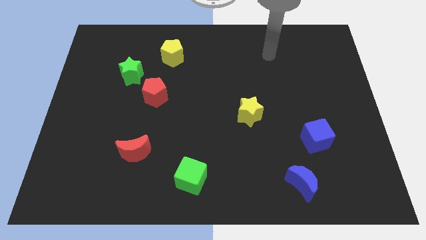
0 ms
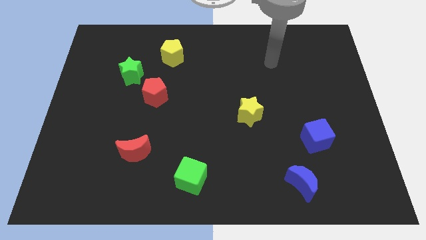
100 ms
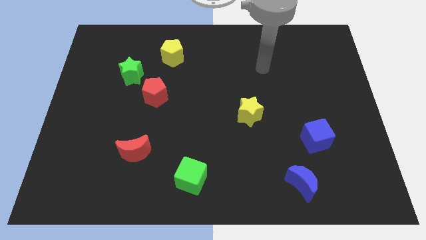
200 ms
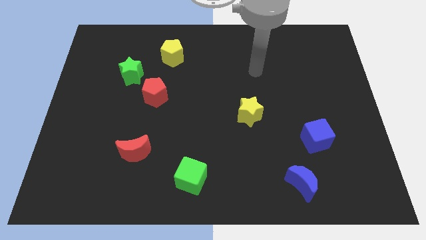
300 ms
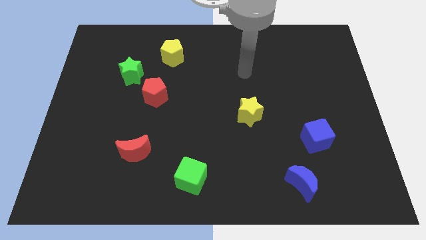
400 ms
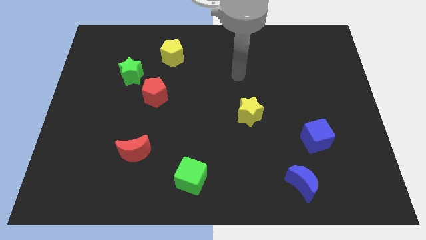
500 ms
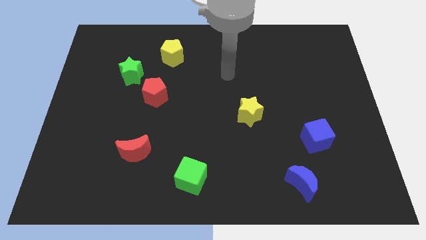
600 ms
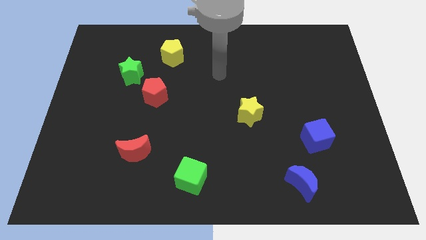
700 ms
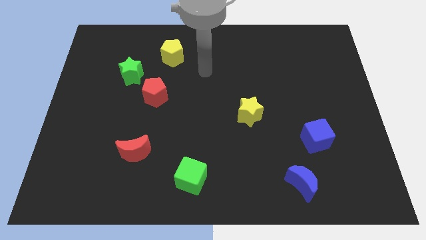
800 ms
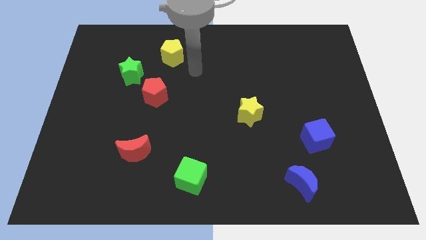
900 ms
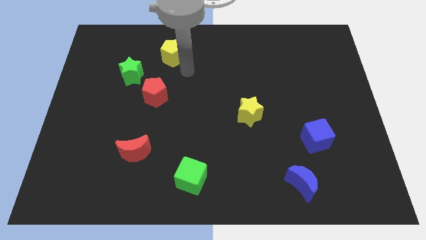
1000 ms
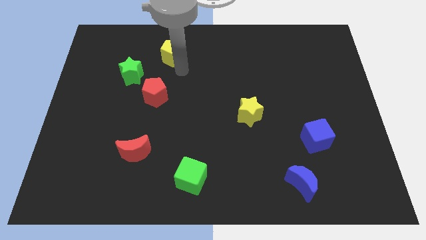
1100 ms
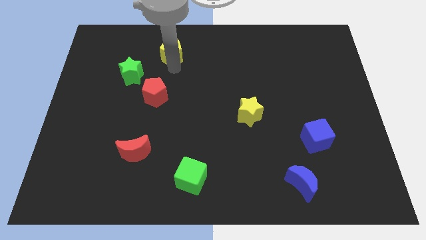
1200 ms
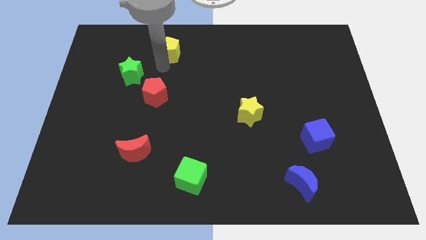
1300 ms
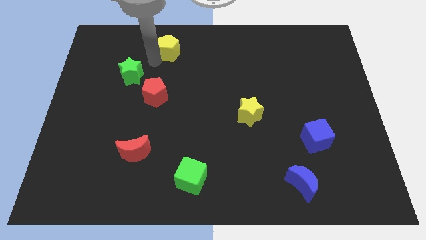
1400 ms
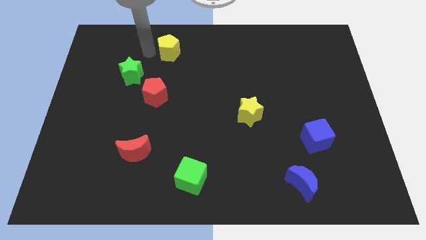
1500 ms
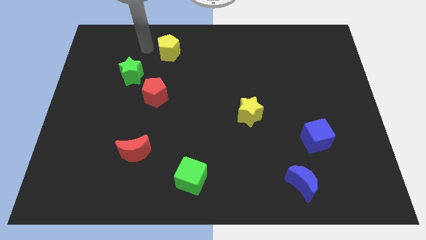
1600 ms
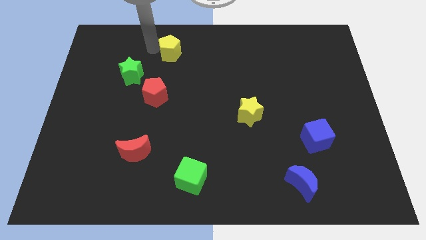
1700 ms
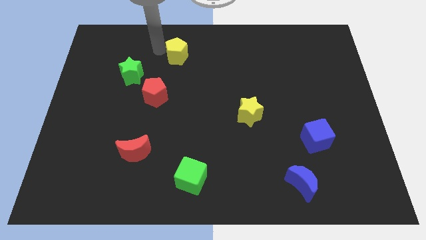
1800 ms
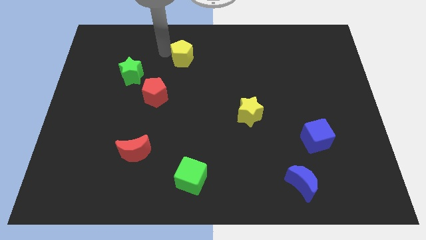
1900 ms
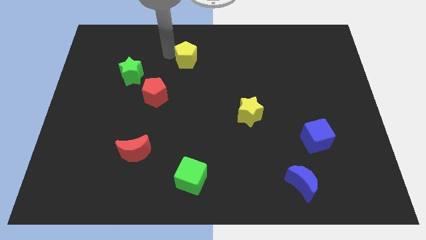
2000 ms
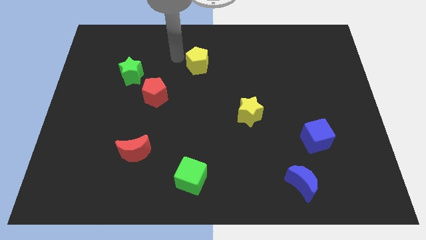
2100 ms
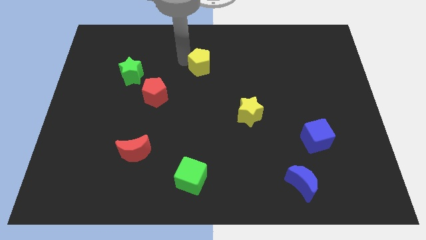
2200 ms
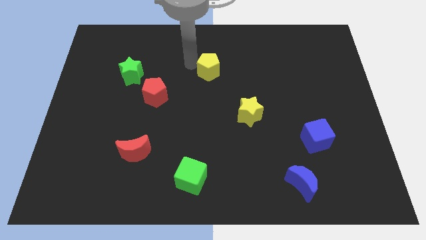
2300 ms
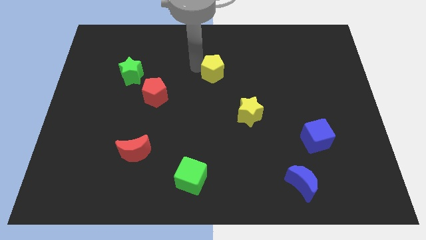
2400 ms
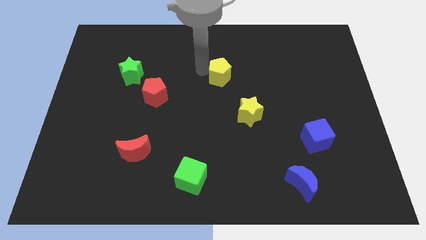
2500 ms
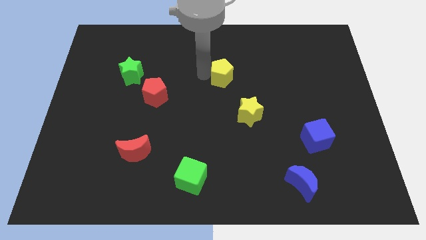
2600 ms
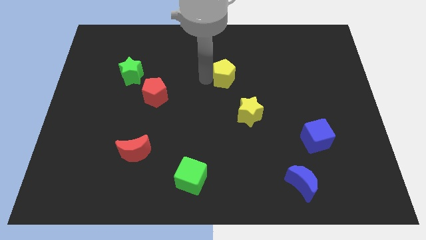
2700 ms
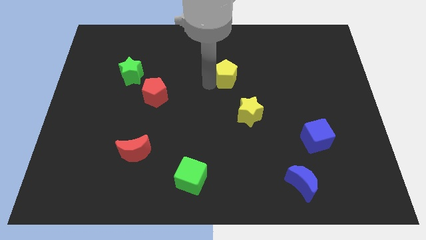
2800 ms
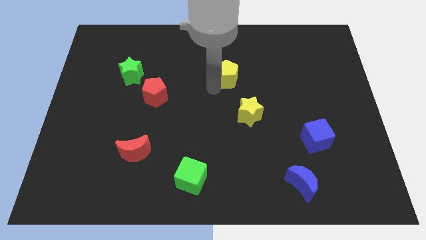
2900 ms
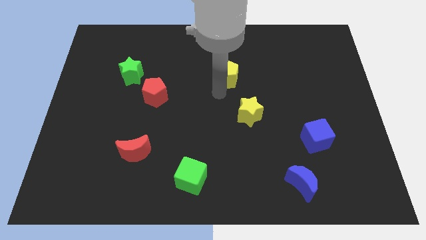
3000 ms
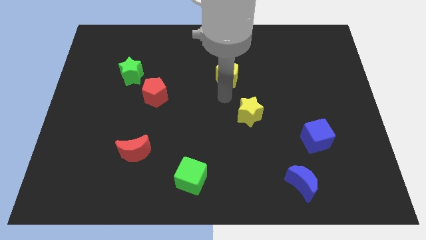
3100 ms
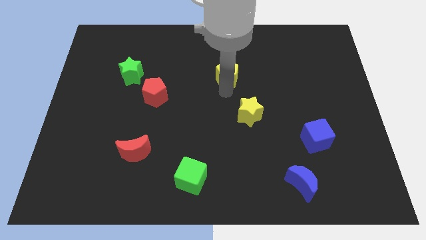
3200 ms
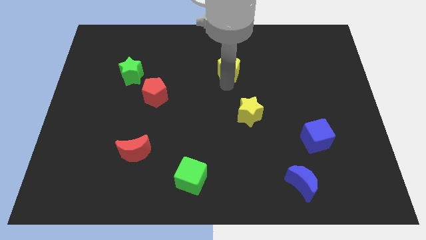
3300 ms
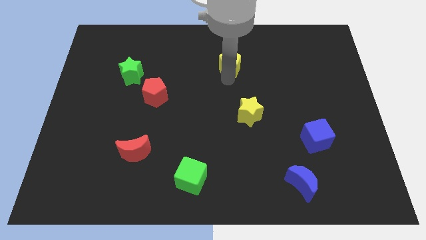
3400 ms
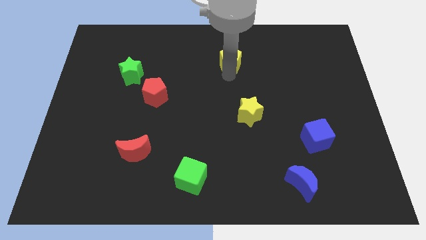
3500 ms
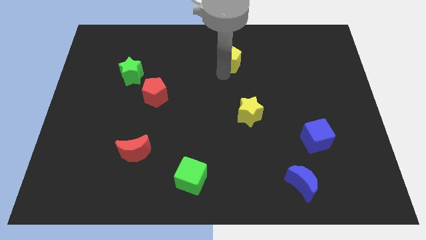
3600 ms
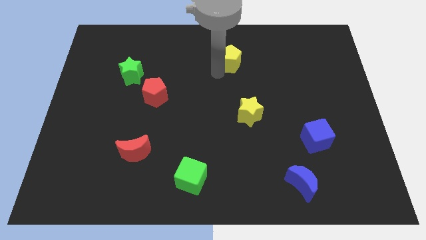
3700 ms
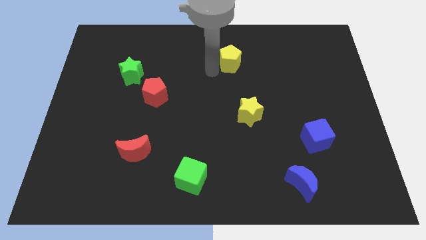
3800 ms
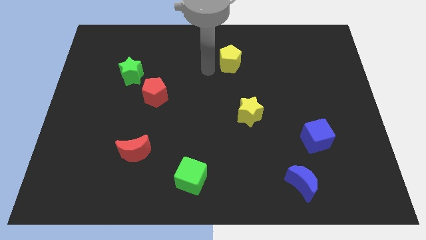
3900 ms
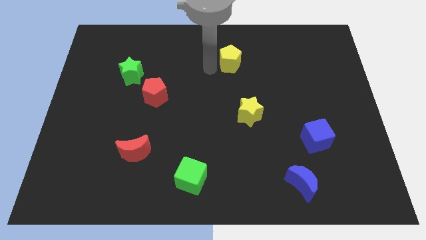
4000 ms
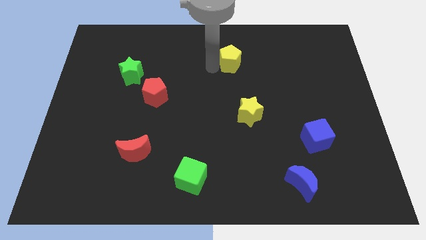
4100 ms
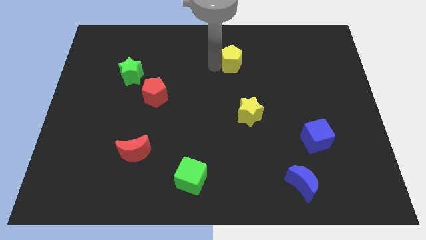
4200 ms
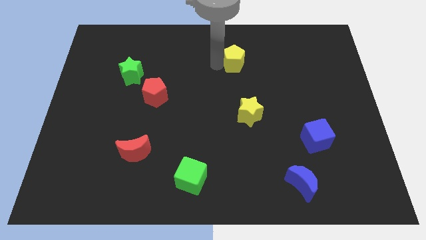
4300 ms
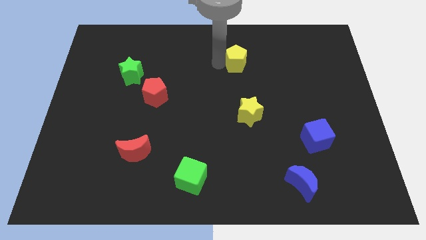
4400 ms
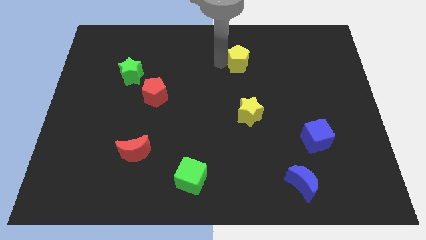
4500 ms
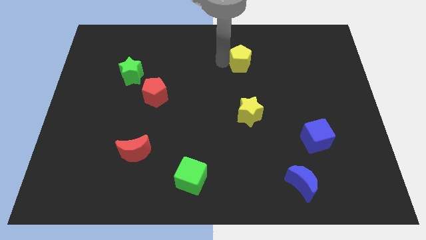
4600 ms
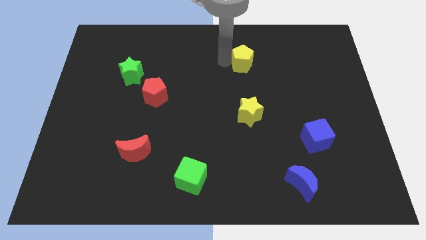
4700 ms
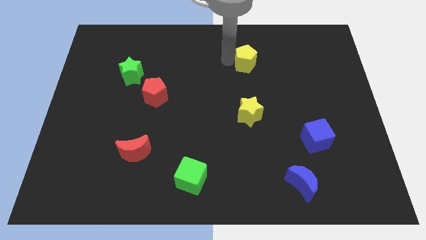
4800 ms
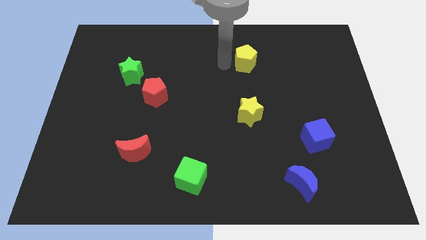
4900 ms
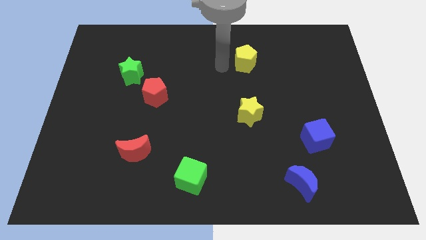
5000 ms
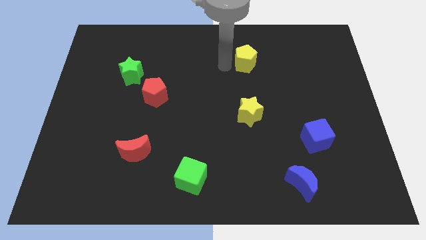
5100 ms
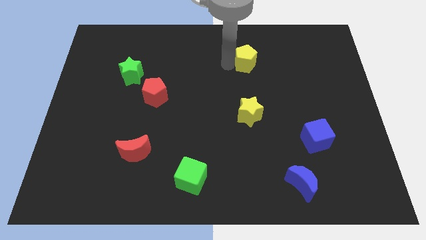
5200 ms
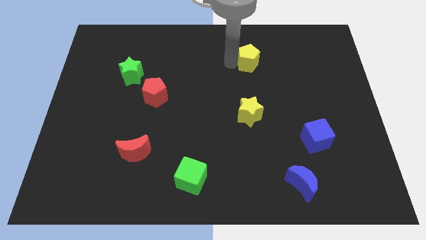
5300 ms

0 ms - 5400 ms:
push the yellow pentagon right

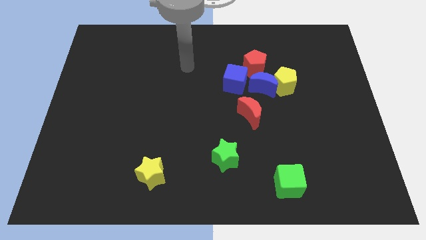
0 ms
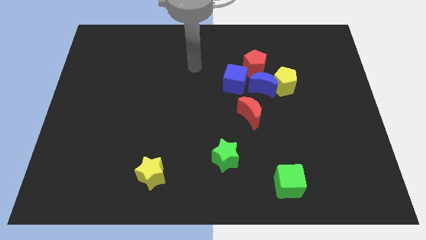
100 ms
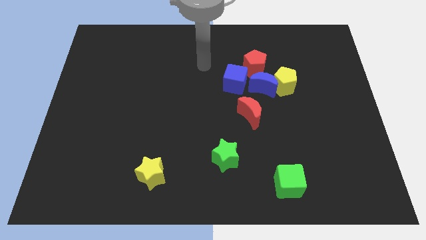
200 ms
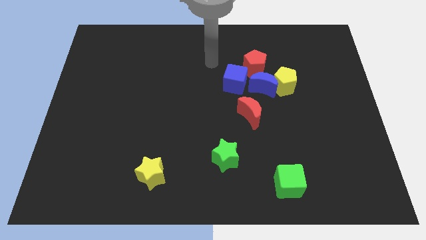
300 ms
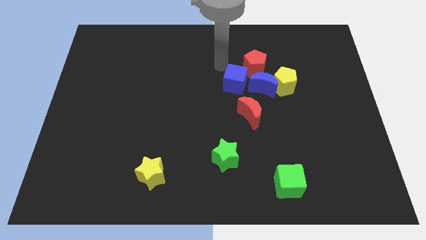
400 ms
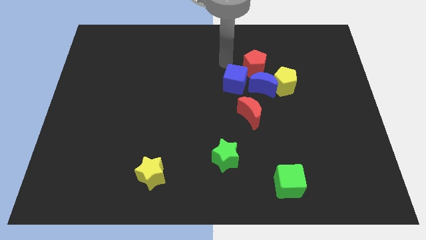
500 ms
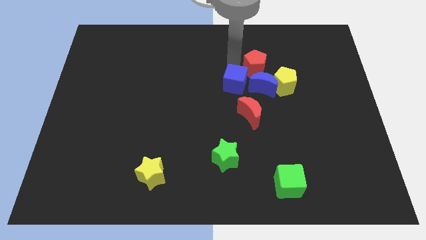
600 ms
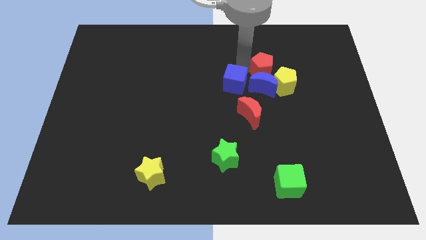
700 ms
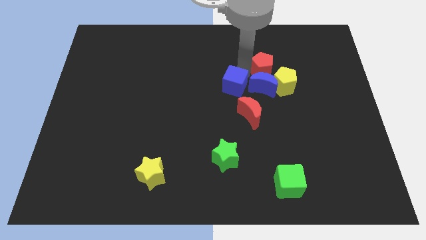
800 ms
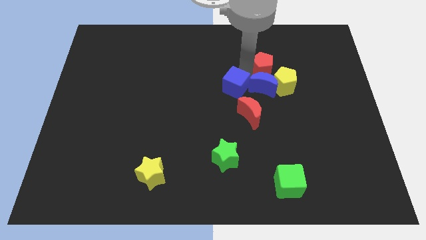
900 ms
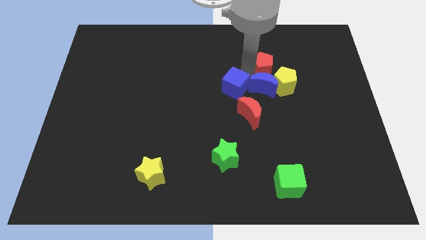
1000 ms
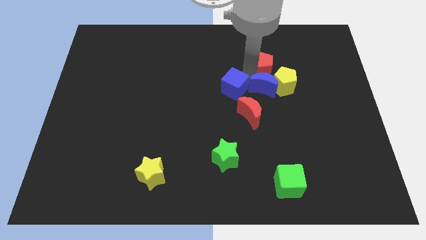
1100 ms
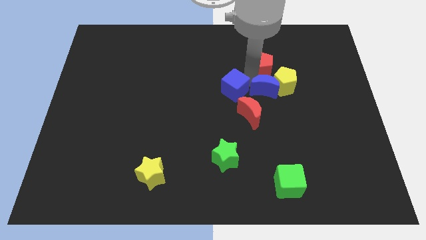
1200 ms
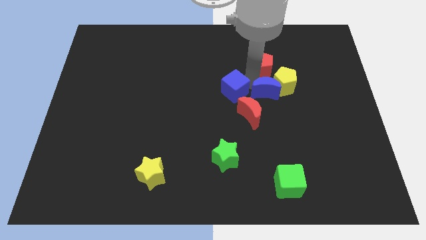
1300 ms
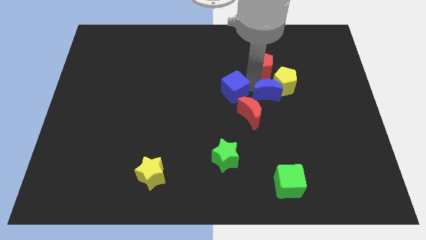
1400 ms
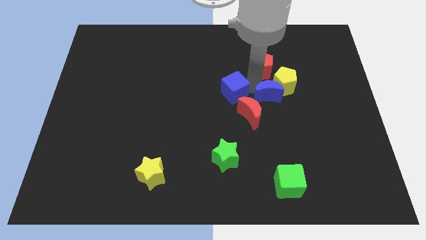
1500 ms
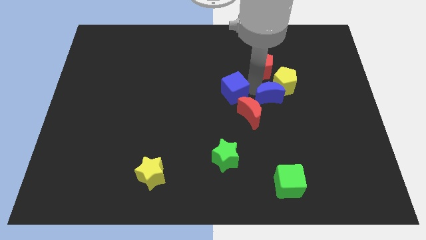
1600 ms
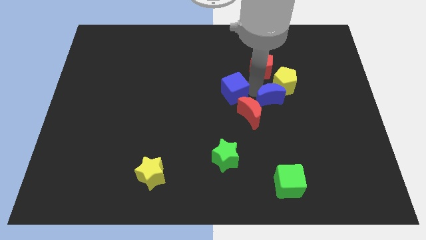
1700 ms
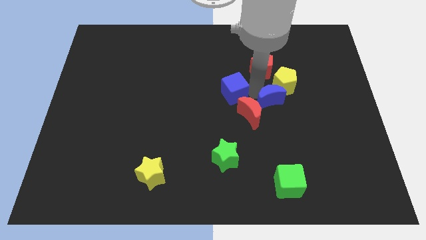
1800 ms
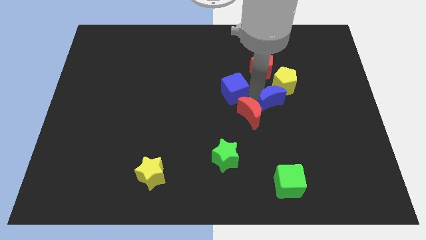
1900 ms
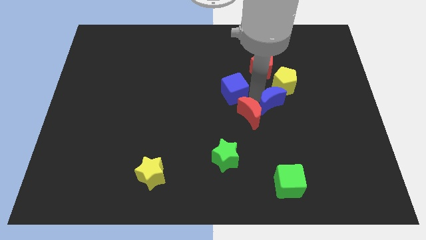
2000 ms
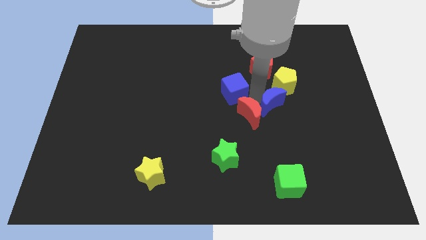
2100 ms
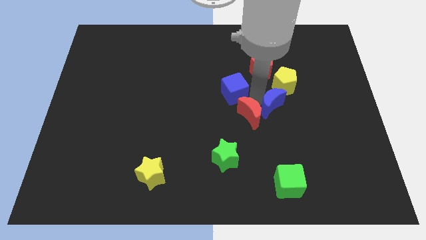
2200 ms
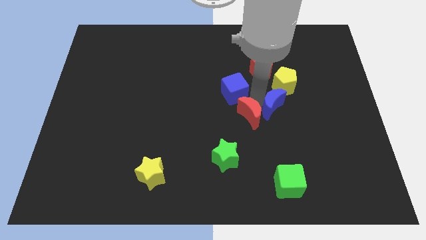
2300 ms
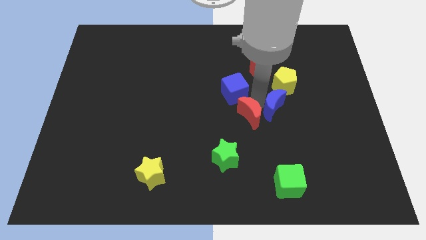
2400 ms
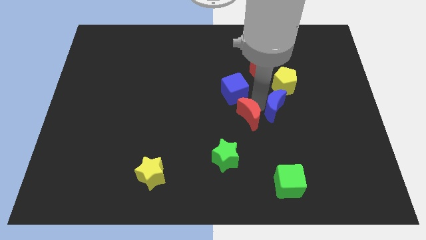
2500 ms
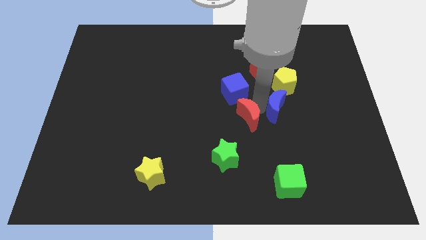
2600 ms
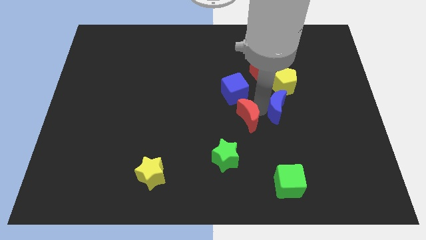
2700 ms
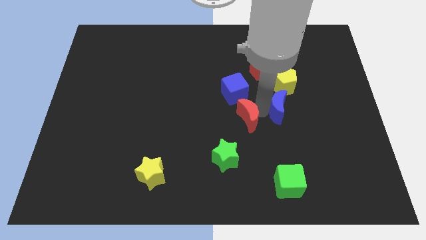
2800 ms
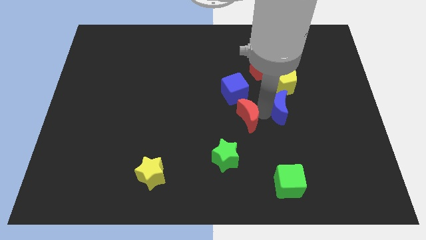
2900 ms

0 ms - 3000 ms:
slightly slide the blue moon down and right
